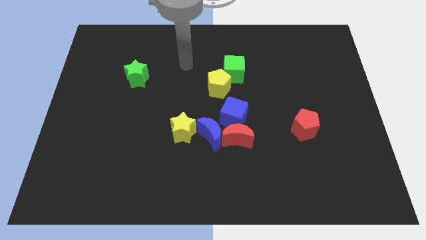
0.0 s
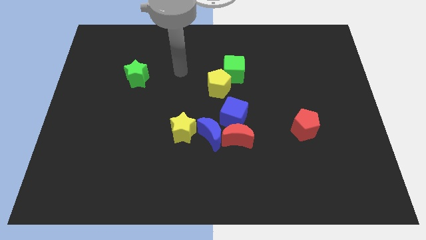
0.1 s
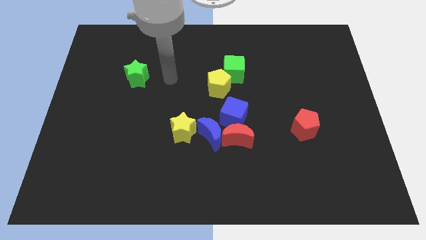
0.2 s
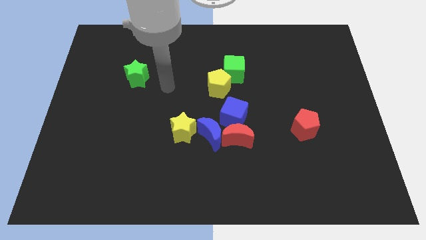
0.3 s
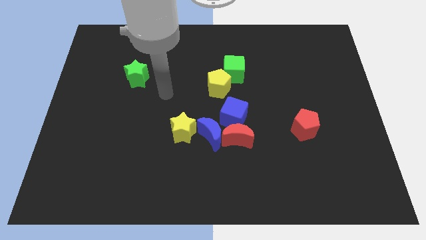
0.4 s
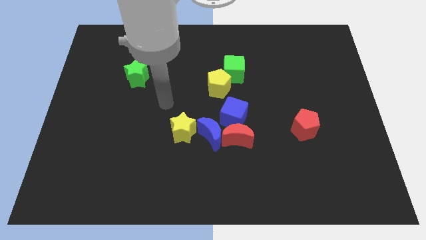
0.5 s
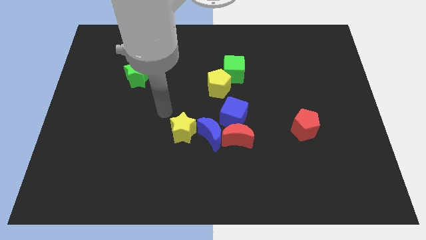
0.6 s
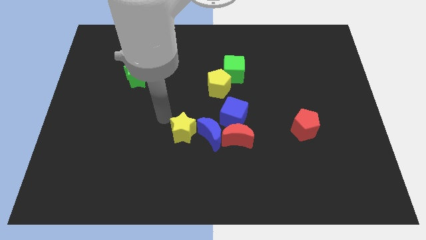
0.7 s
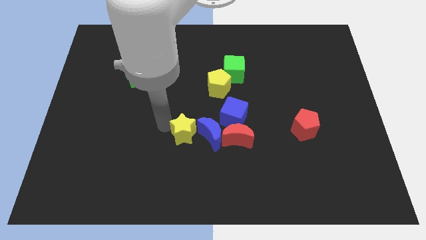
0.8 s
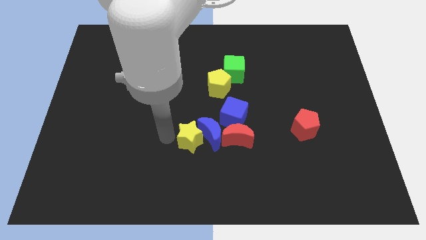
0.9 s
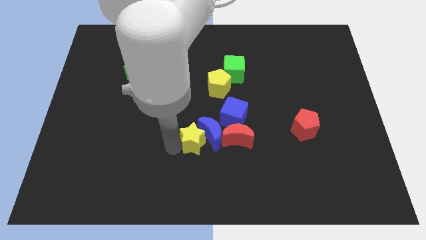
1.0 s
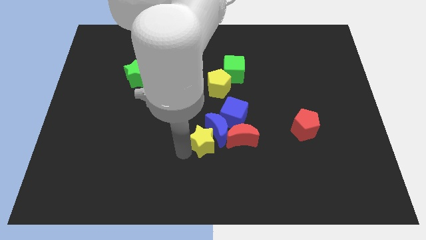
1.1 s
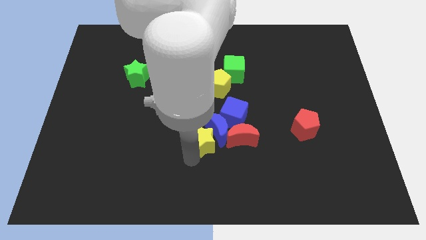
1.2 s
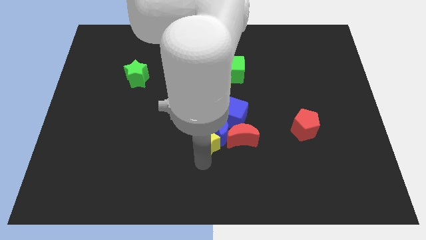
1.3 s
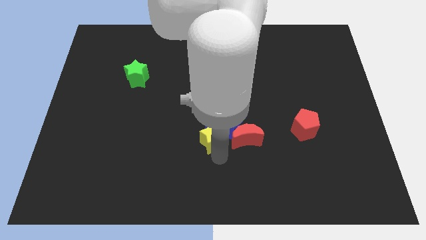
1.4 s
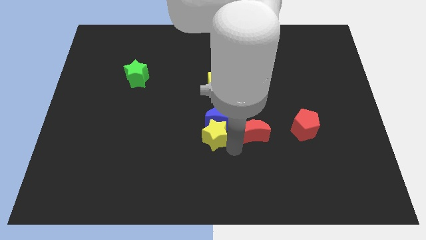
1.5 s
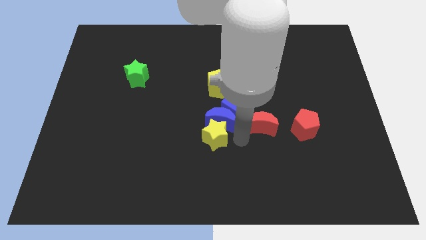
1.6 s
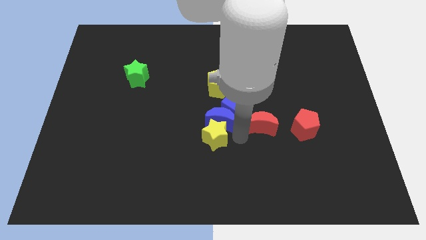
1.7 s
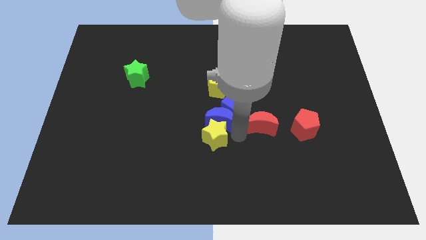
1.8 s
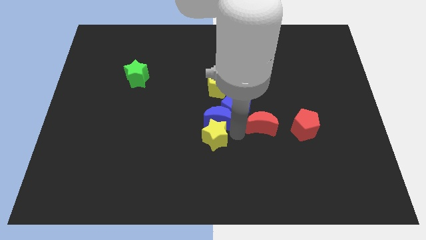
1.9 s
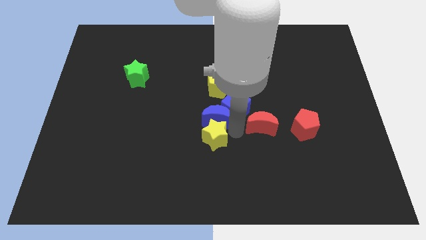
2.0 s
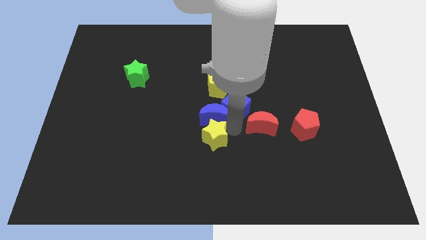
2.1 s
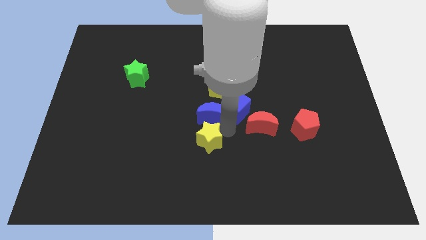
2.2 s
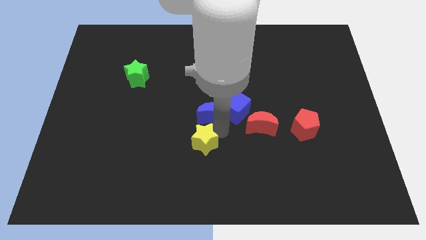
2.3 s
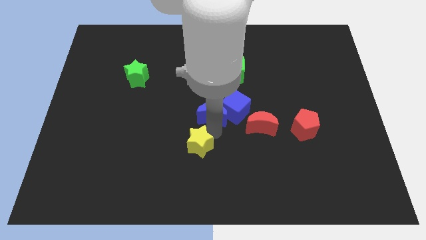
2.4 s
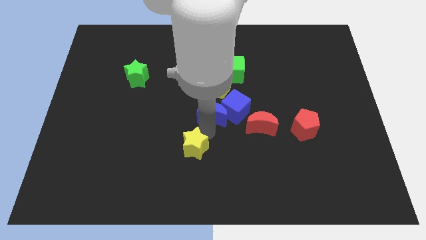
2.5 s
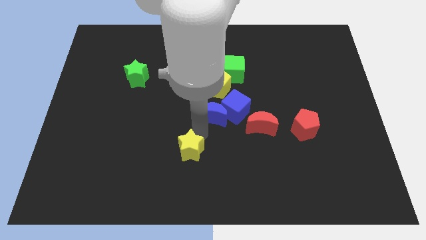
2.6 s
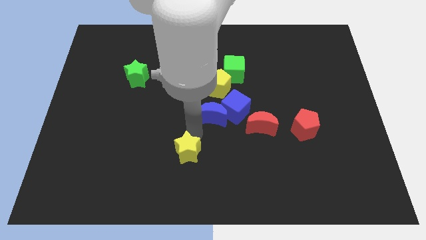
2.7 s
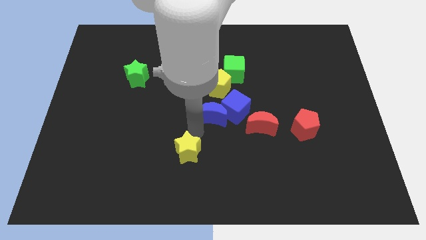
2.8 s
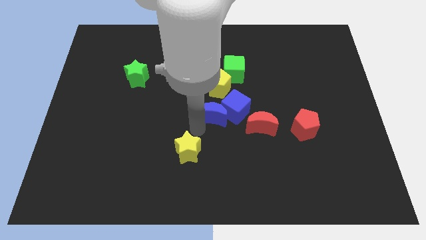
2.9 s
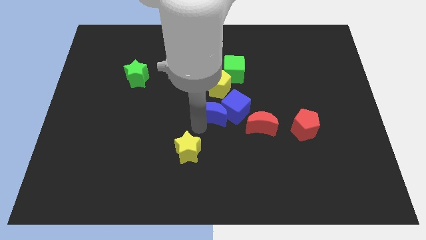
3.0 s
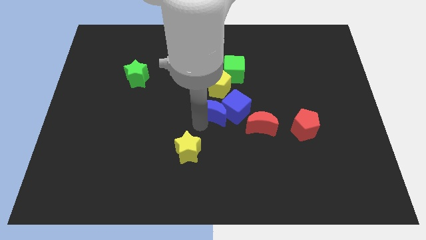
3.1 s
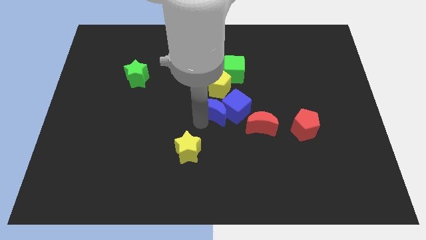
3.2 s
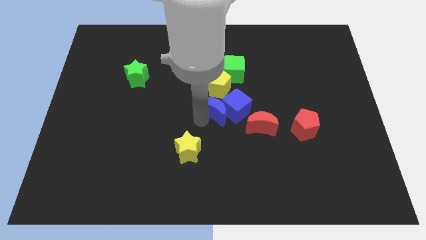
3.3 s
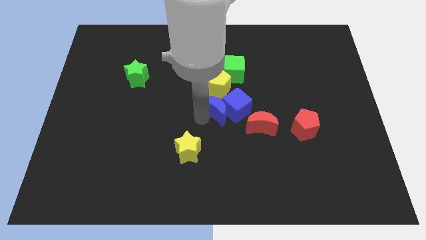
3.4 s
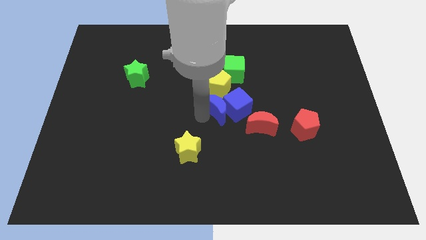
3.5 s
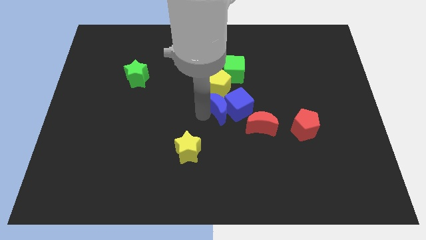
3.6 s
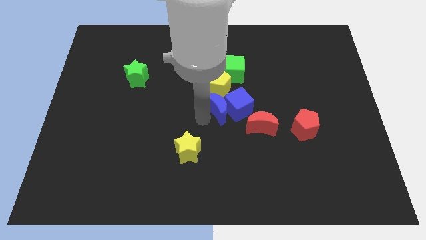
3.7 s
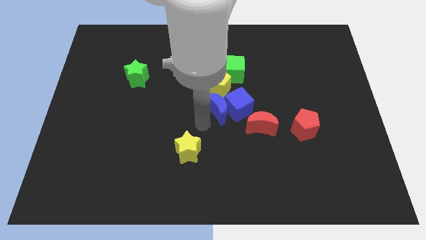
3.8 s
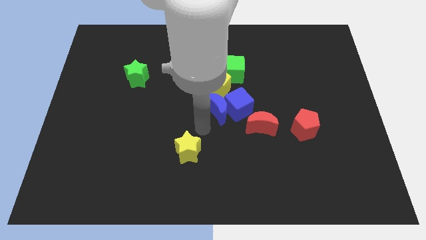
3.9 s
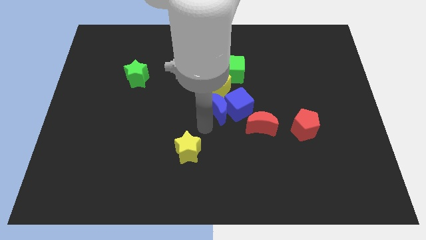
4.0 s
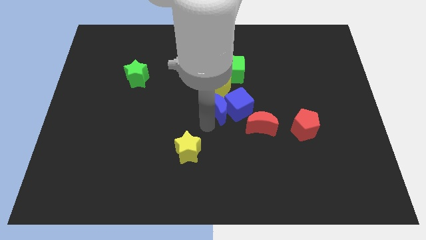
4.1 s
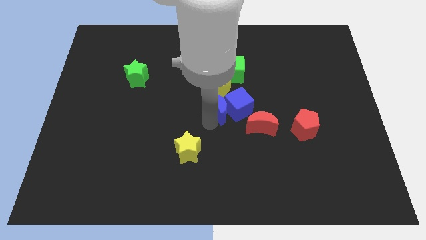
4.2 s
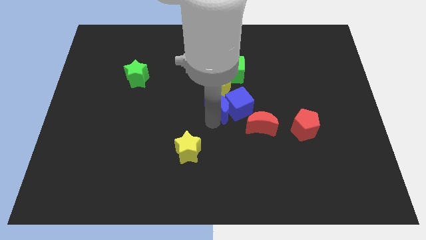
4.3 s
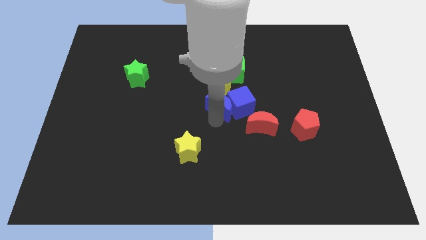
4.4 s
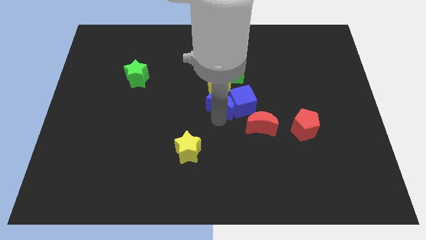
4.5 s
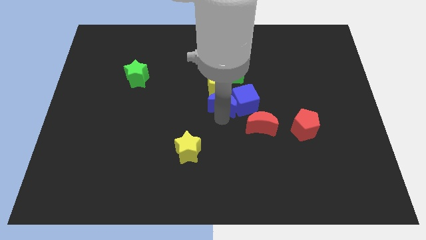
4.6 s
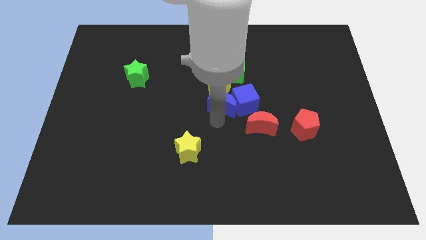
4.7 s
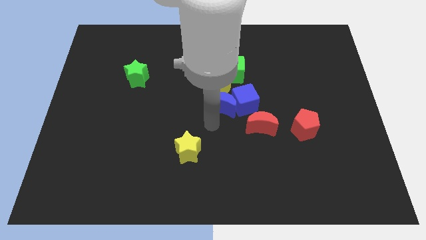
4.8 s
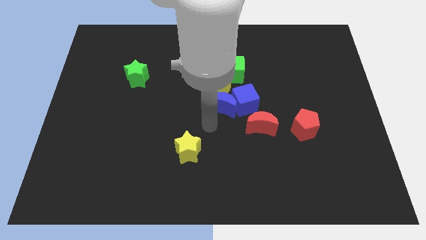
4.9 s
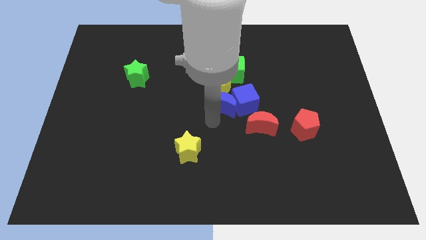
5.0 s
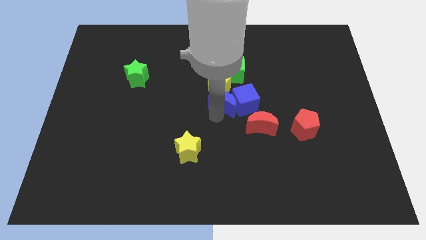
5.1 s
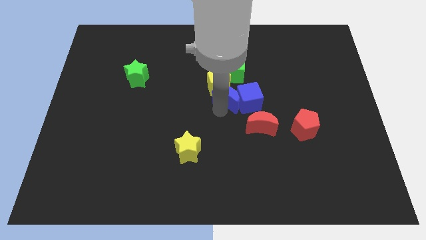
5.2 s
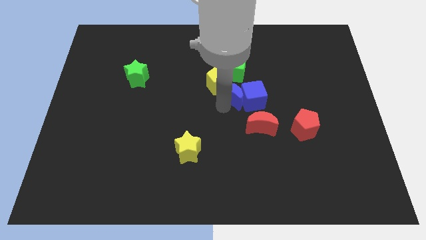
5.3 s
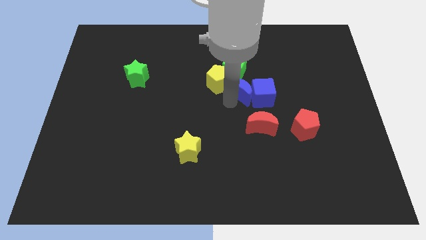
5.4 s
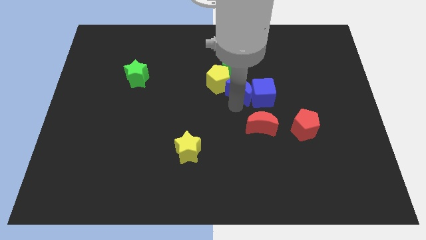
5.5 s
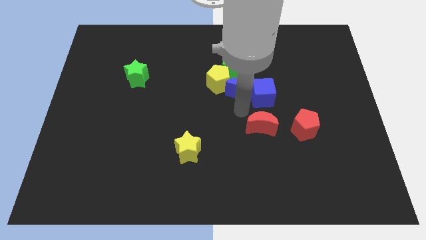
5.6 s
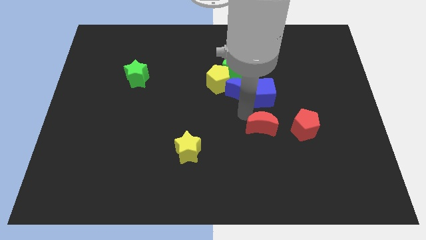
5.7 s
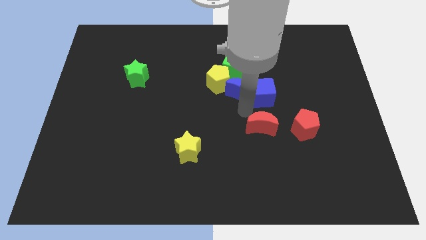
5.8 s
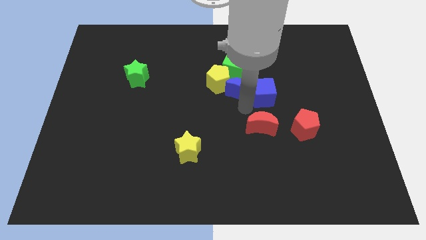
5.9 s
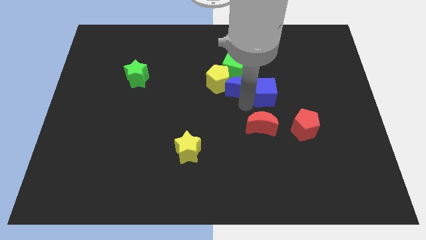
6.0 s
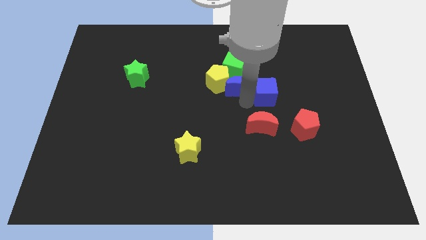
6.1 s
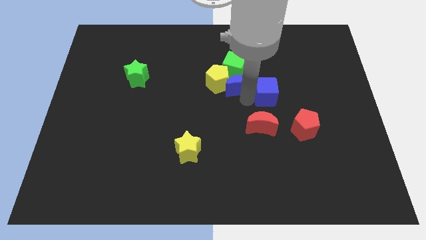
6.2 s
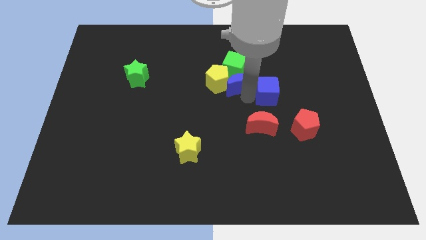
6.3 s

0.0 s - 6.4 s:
slide the blue moon to the green cube
